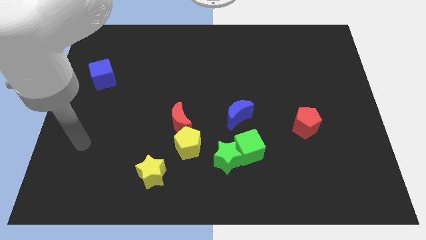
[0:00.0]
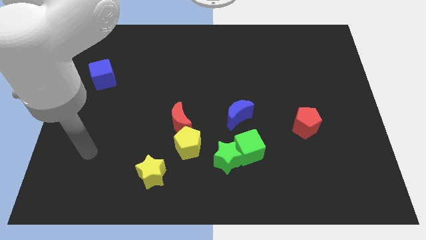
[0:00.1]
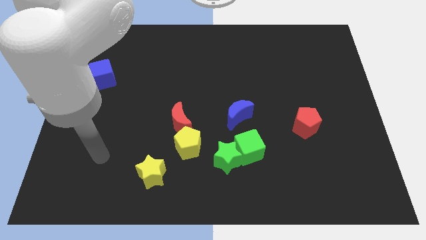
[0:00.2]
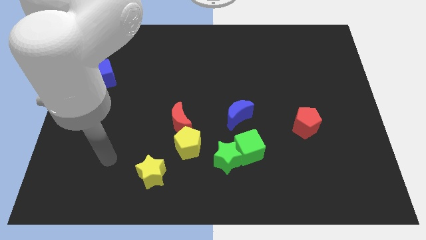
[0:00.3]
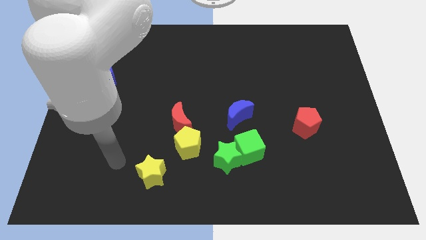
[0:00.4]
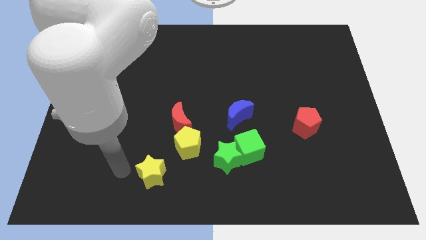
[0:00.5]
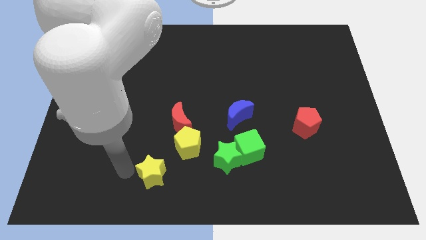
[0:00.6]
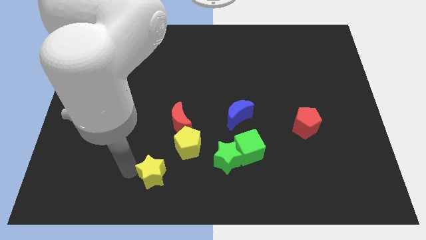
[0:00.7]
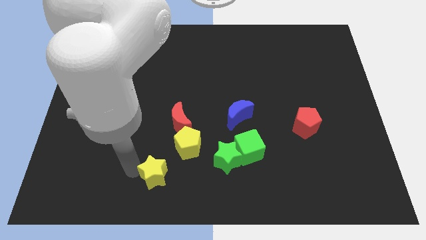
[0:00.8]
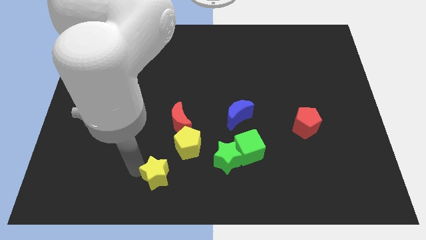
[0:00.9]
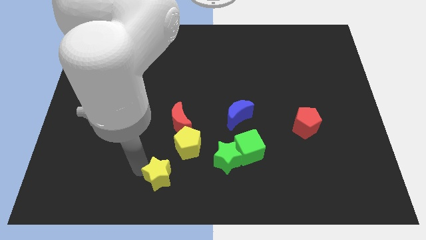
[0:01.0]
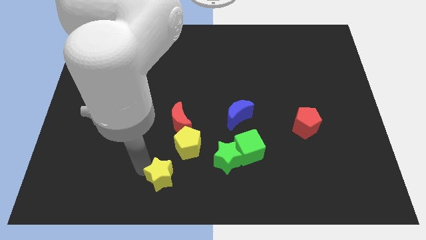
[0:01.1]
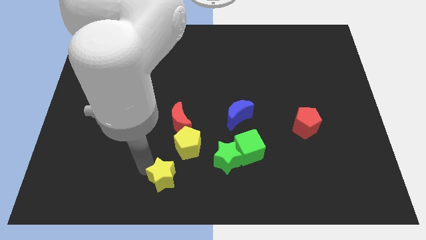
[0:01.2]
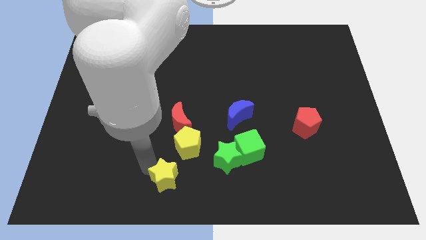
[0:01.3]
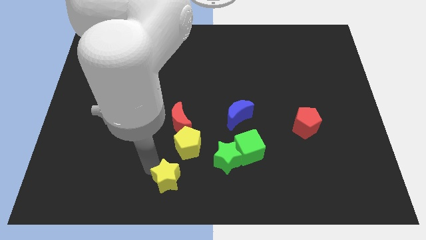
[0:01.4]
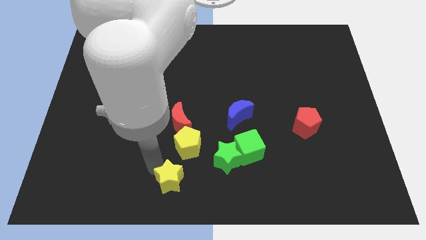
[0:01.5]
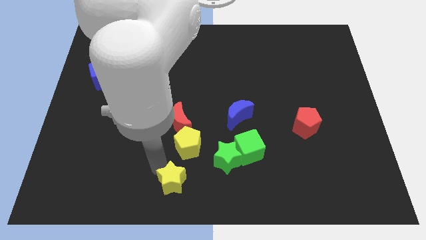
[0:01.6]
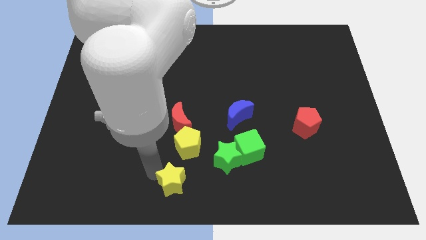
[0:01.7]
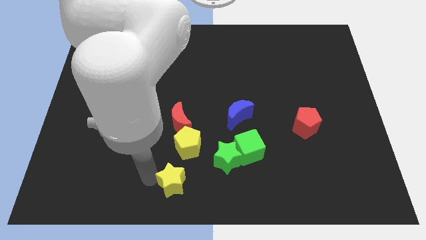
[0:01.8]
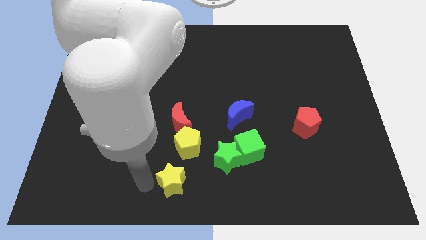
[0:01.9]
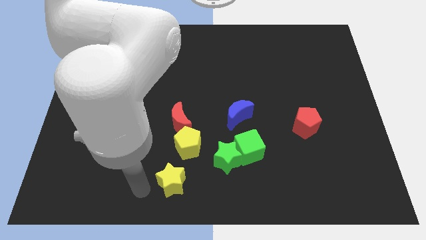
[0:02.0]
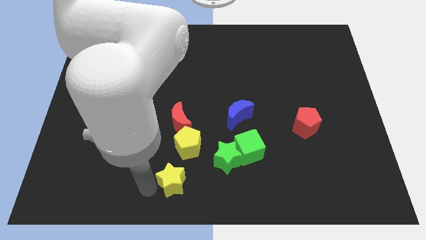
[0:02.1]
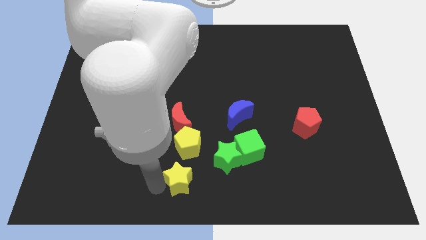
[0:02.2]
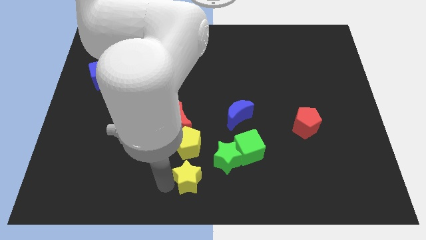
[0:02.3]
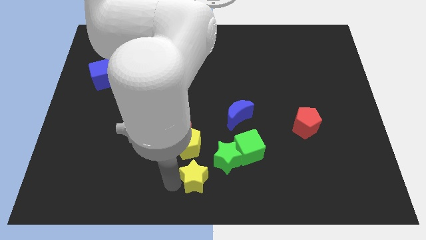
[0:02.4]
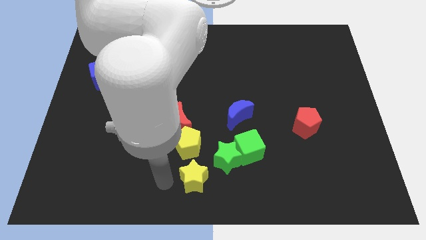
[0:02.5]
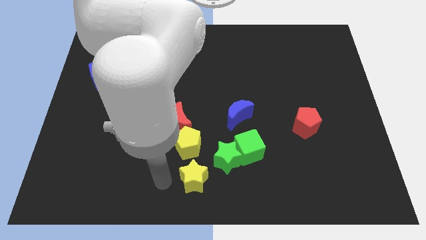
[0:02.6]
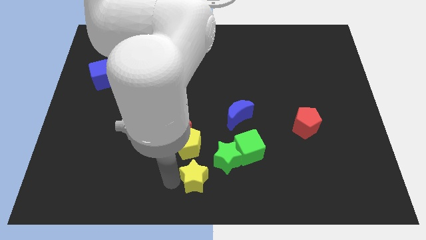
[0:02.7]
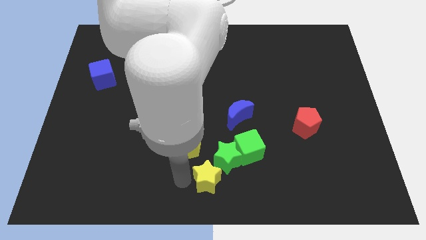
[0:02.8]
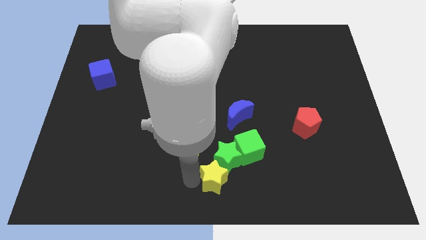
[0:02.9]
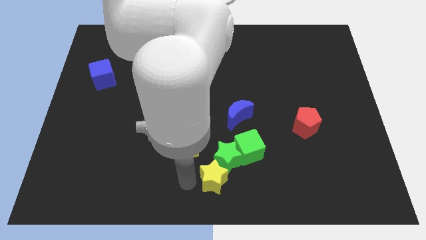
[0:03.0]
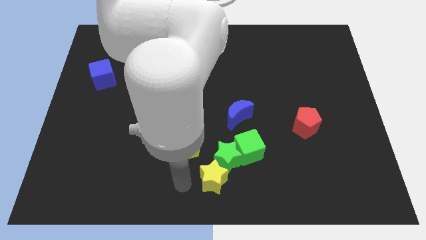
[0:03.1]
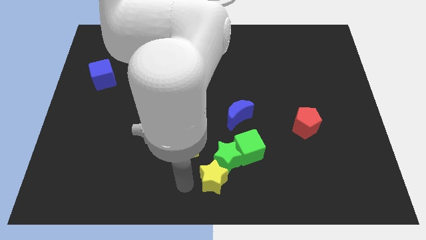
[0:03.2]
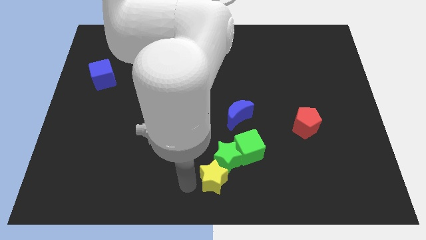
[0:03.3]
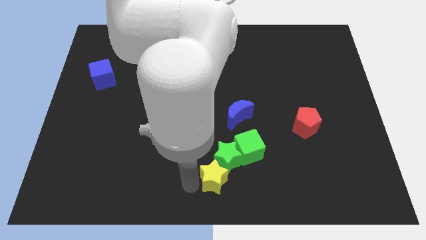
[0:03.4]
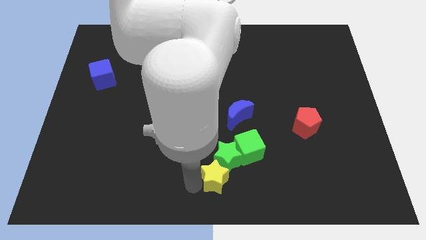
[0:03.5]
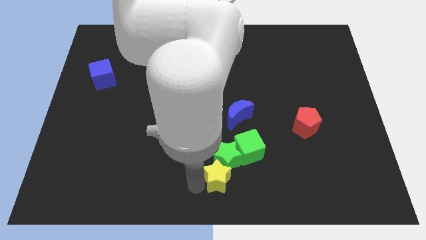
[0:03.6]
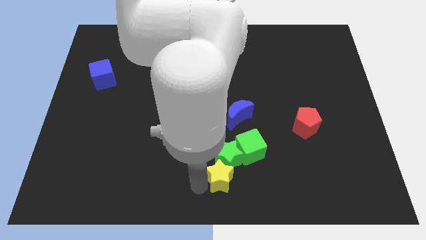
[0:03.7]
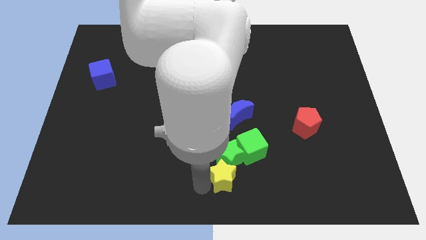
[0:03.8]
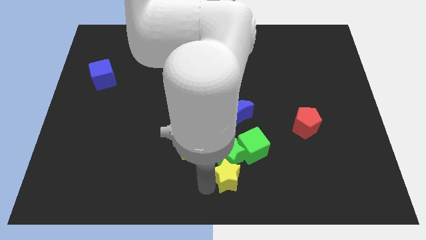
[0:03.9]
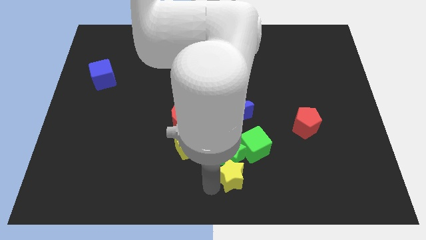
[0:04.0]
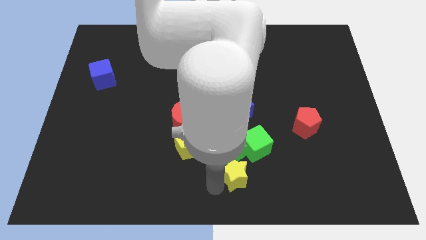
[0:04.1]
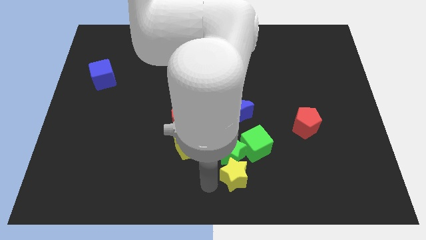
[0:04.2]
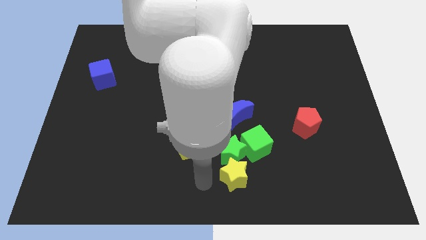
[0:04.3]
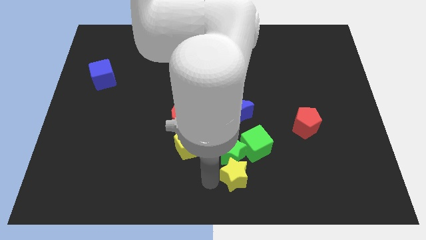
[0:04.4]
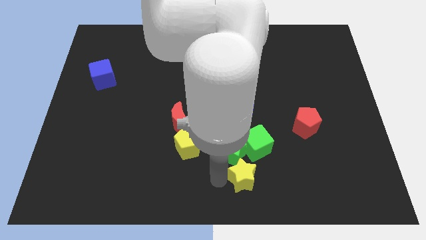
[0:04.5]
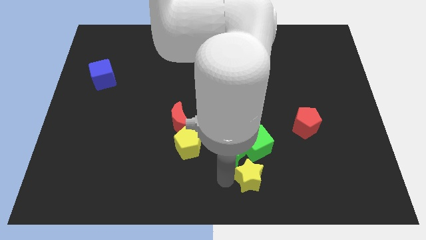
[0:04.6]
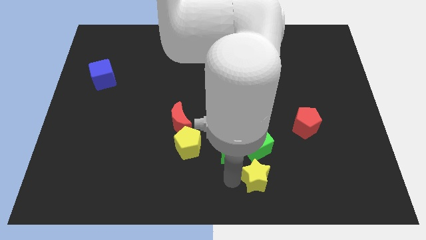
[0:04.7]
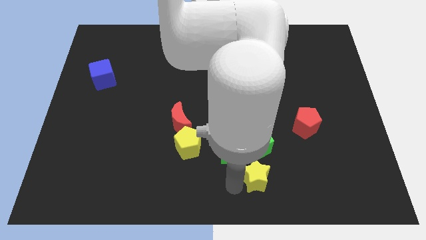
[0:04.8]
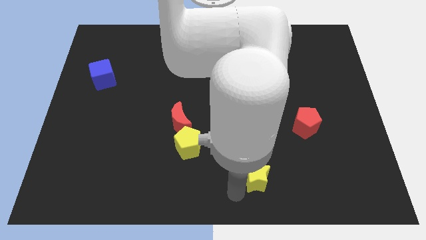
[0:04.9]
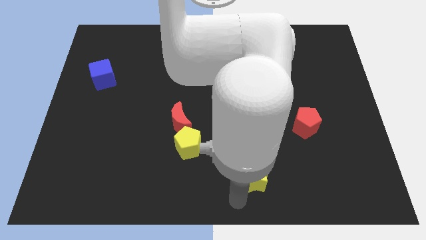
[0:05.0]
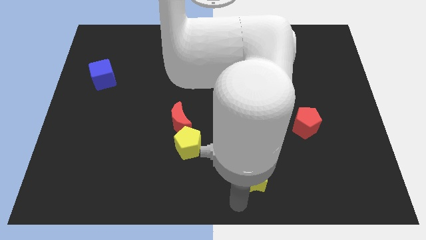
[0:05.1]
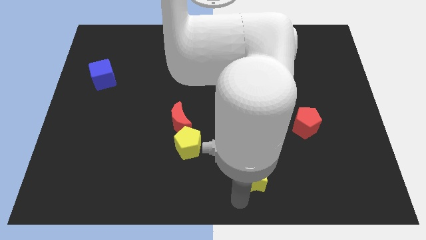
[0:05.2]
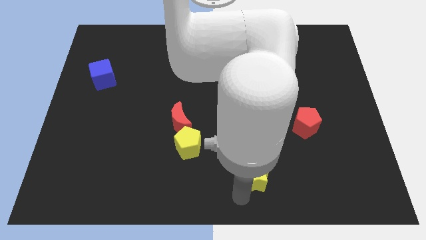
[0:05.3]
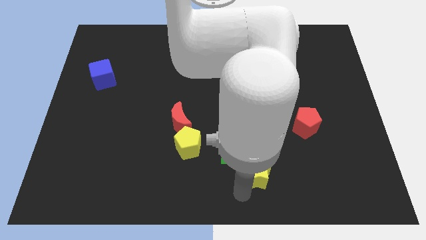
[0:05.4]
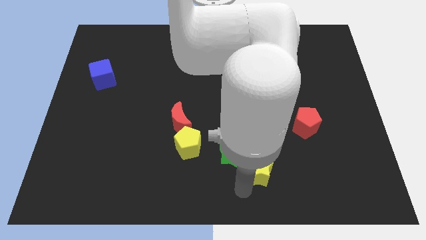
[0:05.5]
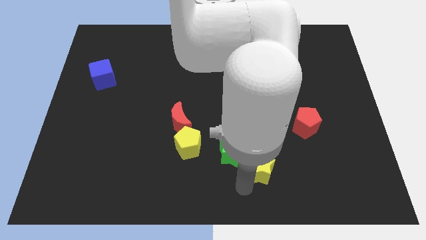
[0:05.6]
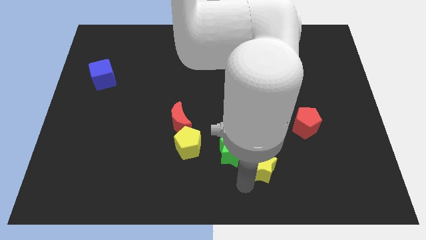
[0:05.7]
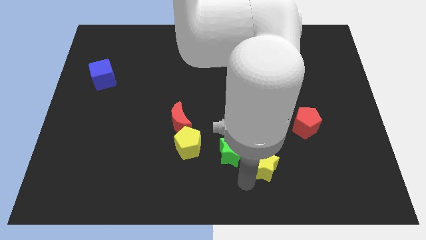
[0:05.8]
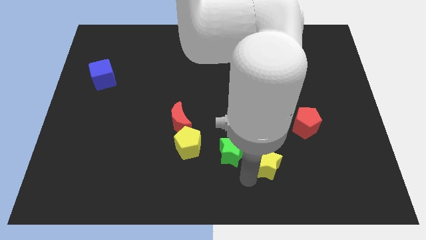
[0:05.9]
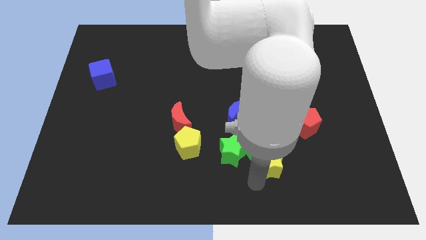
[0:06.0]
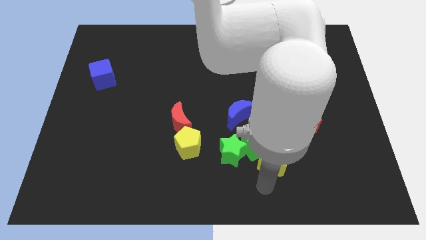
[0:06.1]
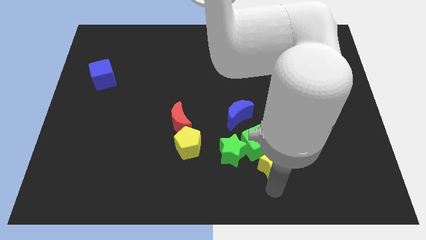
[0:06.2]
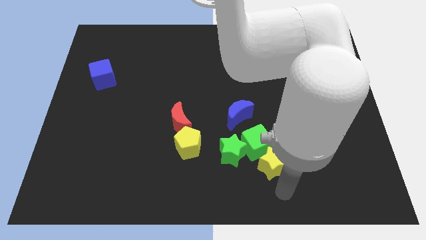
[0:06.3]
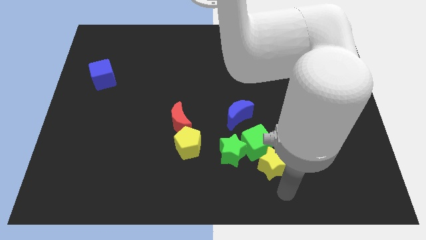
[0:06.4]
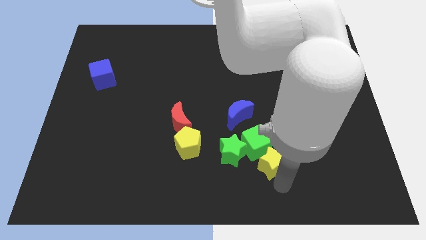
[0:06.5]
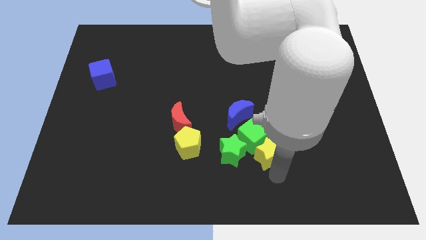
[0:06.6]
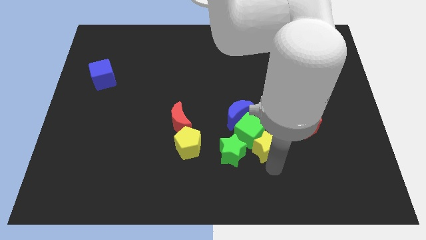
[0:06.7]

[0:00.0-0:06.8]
slide the yellow star diagonally up and to the right of the green star
